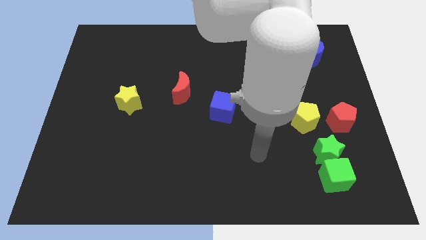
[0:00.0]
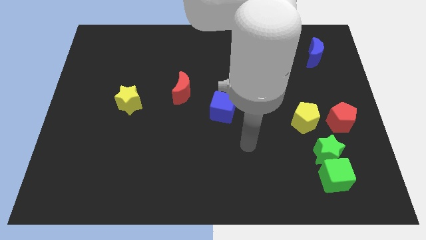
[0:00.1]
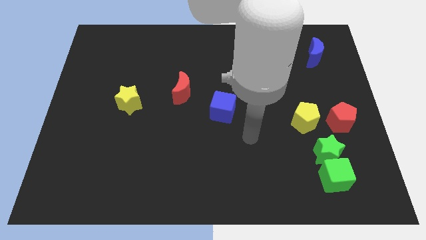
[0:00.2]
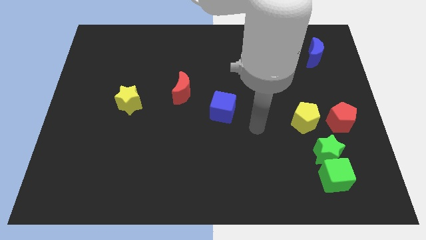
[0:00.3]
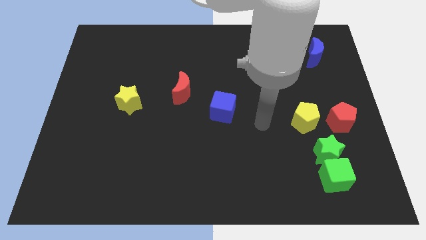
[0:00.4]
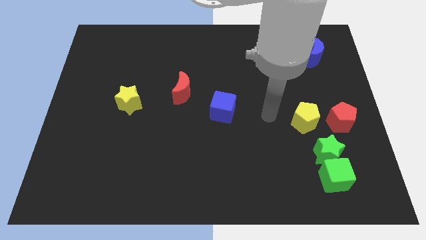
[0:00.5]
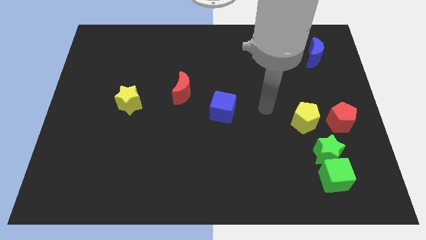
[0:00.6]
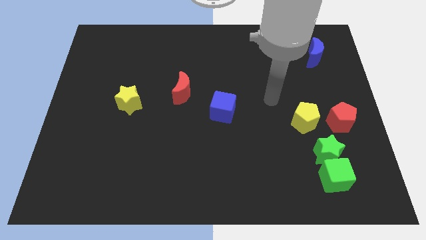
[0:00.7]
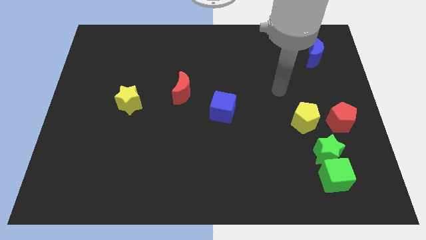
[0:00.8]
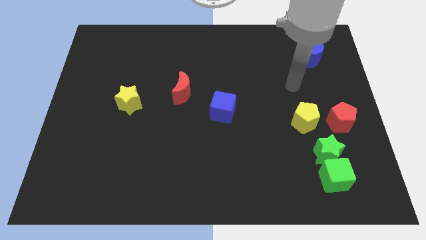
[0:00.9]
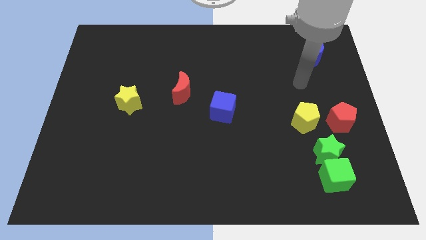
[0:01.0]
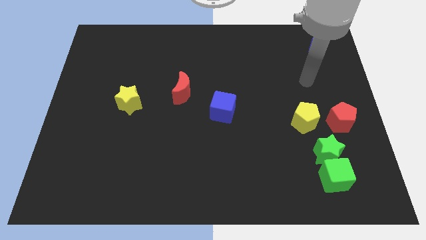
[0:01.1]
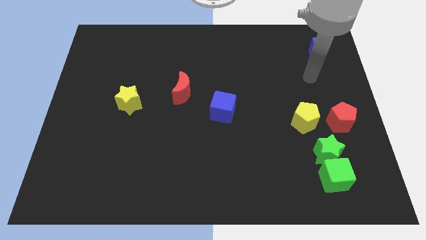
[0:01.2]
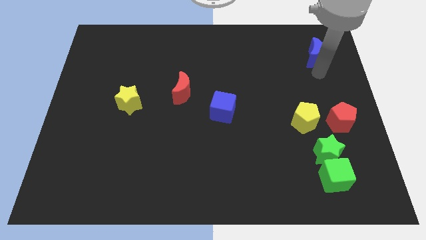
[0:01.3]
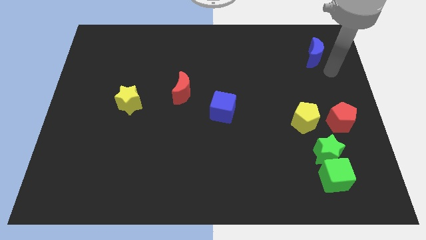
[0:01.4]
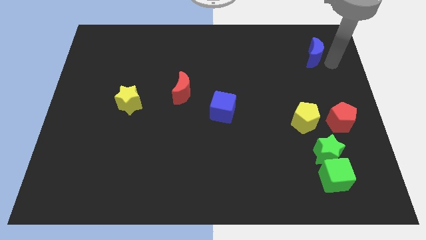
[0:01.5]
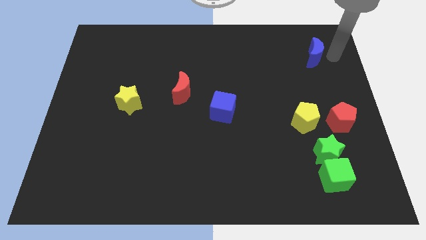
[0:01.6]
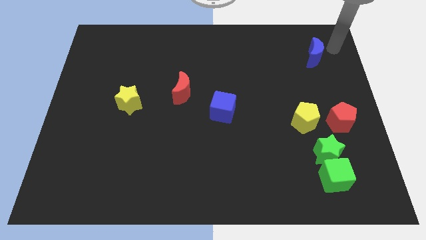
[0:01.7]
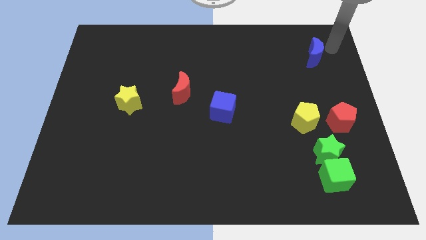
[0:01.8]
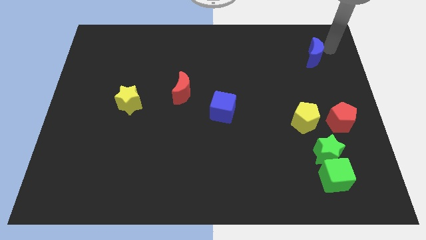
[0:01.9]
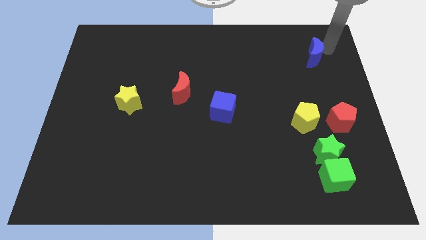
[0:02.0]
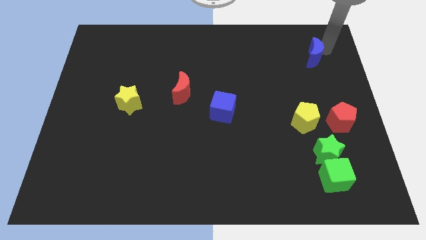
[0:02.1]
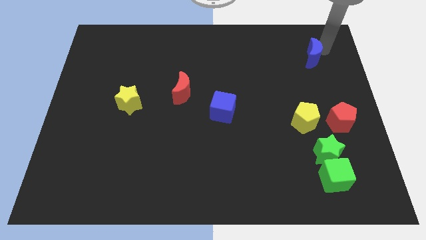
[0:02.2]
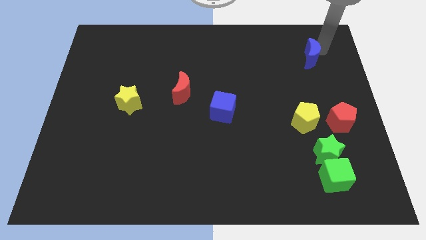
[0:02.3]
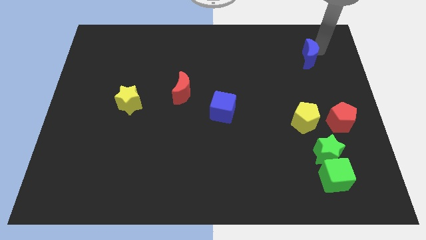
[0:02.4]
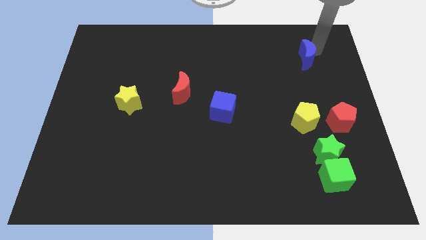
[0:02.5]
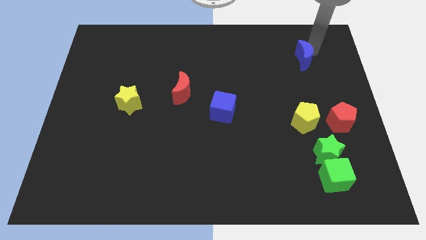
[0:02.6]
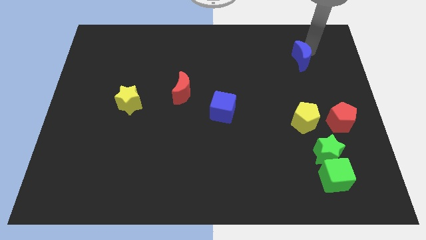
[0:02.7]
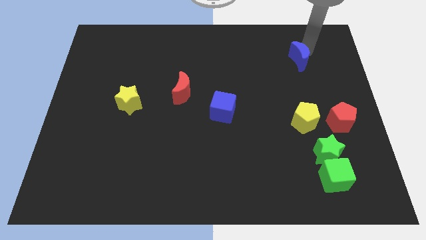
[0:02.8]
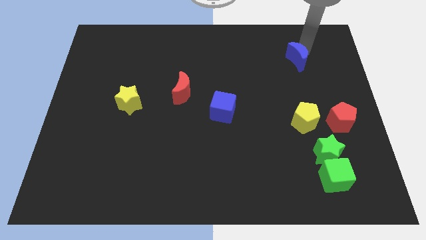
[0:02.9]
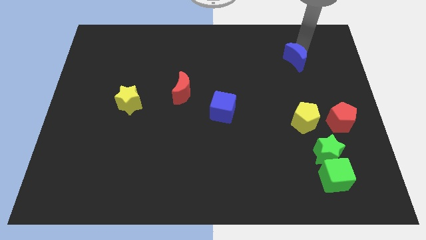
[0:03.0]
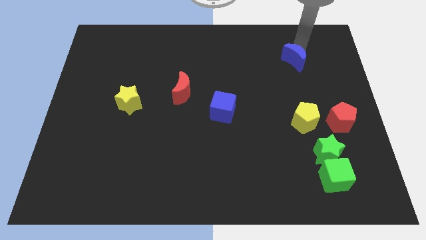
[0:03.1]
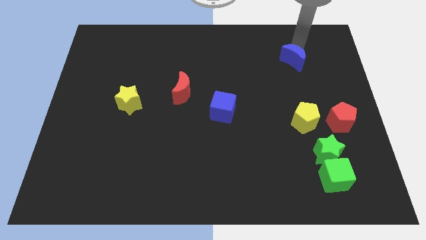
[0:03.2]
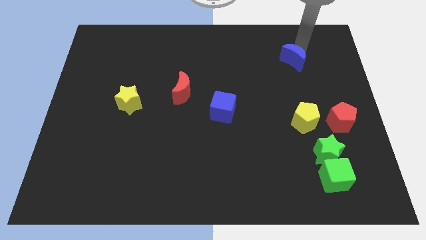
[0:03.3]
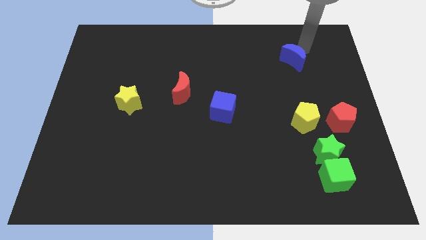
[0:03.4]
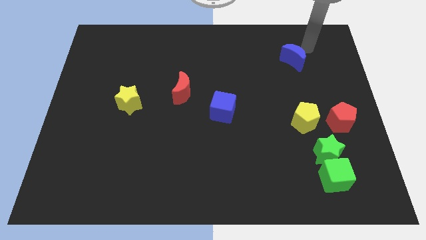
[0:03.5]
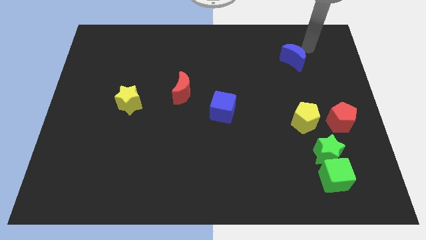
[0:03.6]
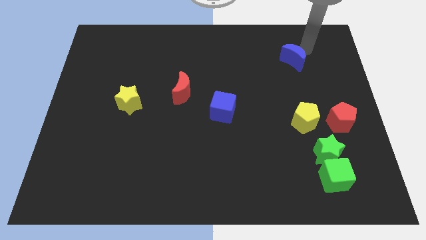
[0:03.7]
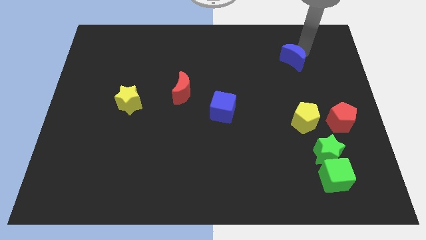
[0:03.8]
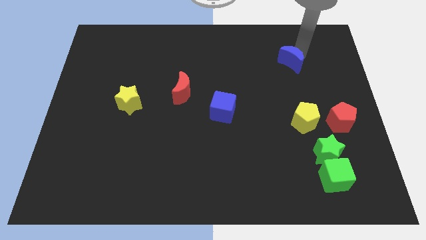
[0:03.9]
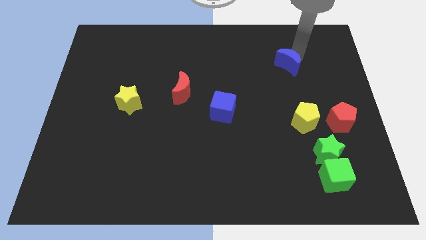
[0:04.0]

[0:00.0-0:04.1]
push the blue moon a bit down and to the left

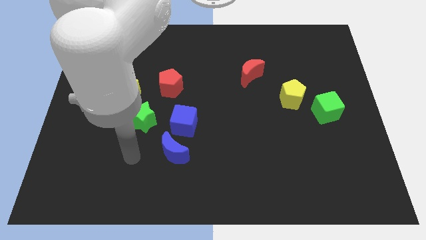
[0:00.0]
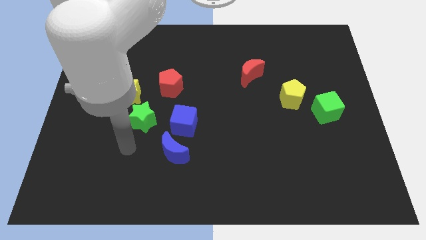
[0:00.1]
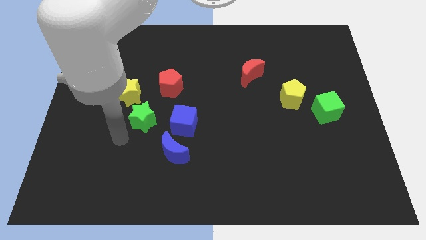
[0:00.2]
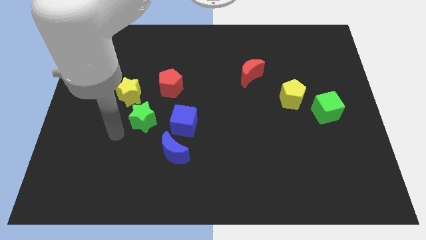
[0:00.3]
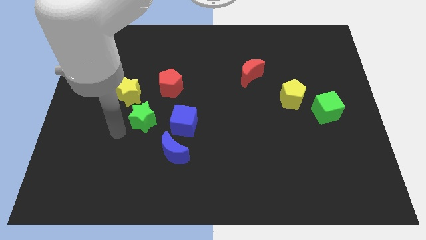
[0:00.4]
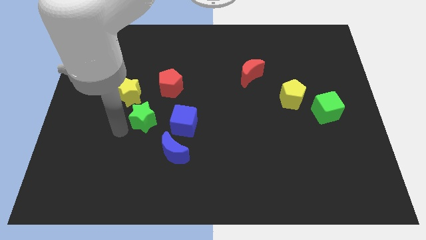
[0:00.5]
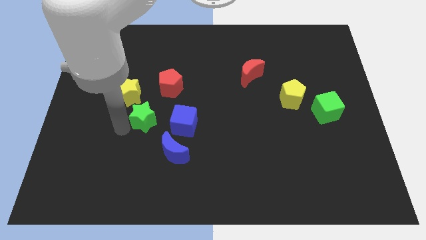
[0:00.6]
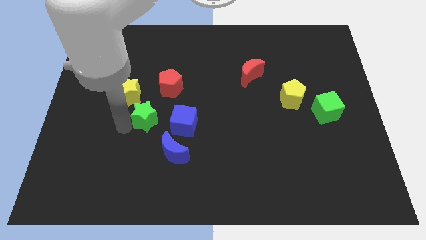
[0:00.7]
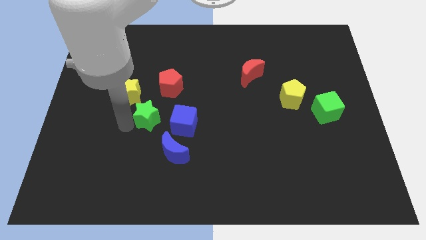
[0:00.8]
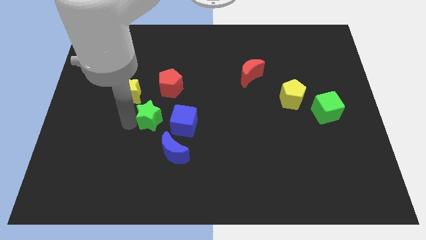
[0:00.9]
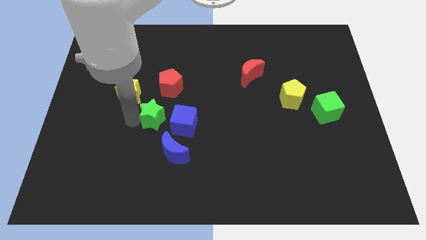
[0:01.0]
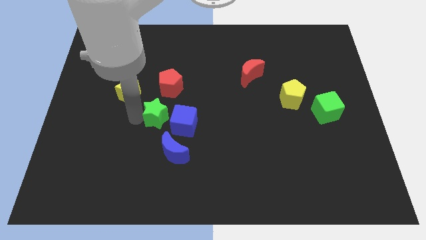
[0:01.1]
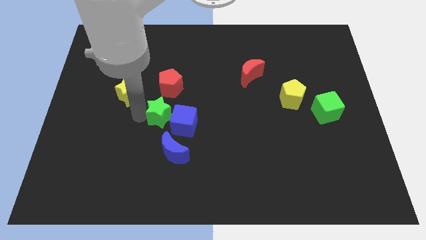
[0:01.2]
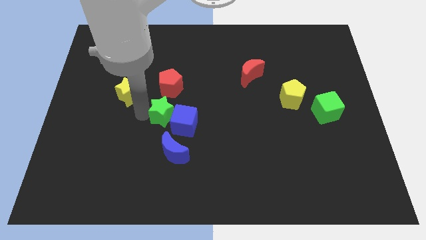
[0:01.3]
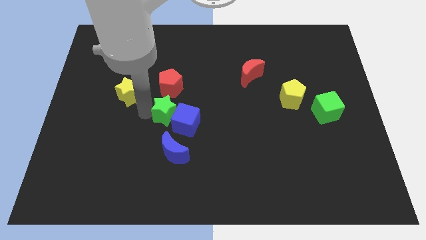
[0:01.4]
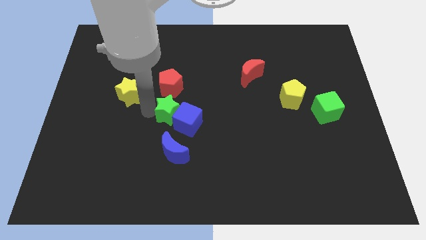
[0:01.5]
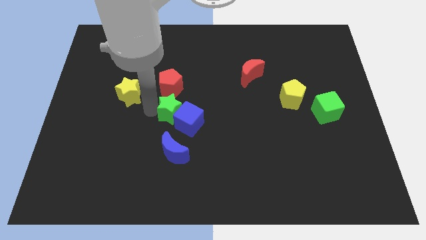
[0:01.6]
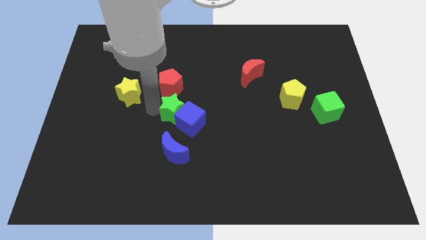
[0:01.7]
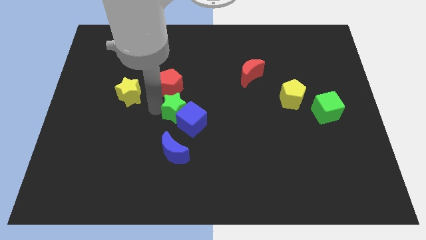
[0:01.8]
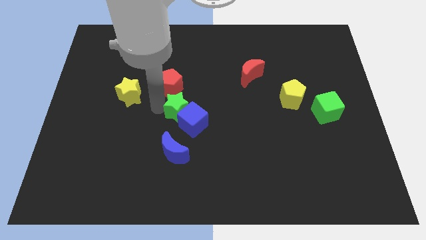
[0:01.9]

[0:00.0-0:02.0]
move the green star slightly to the right

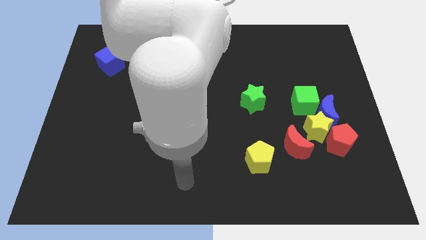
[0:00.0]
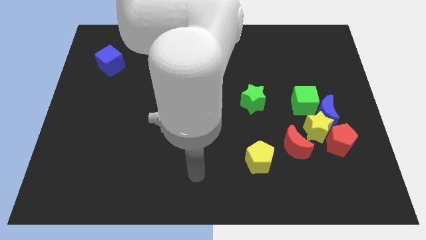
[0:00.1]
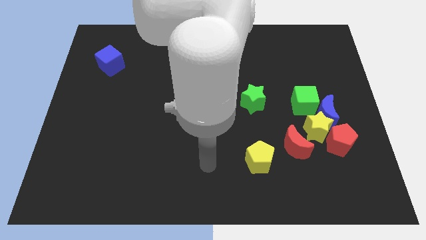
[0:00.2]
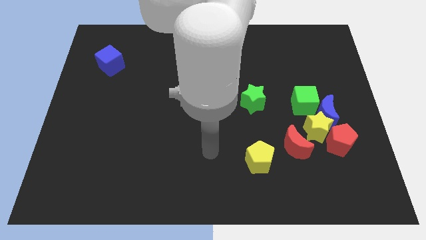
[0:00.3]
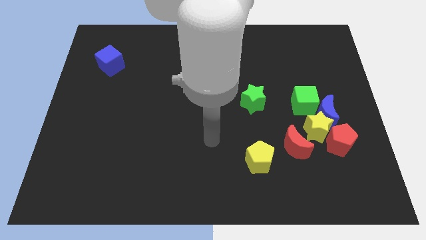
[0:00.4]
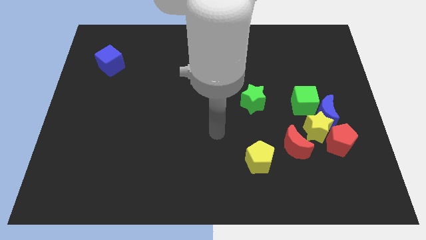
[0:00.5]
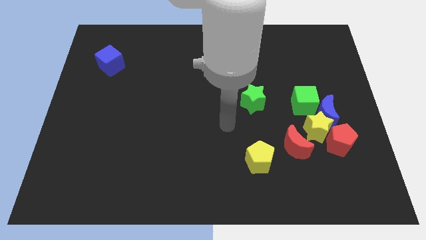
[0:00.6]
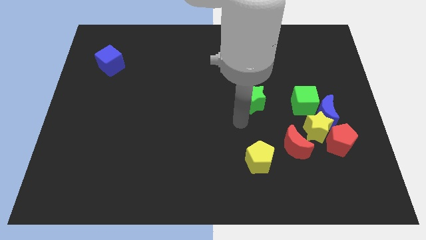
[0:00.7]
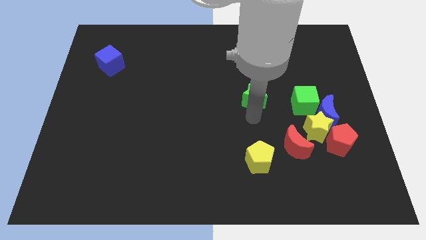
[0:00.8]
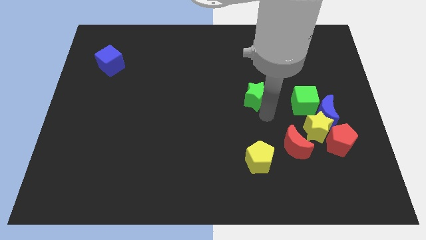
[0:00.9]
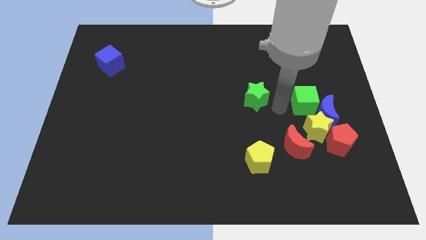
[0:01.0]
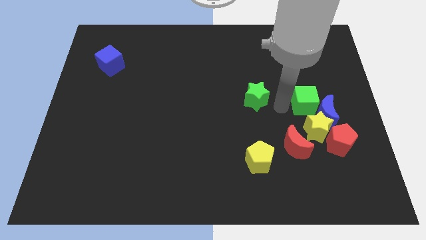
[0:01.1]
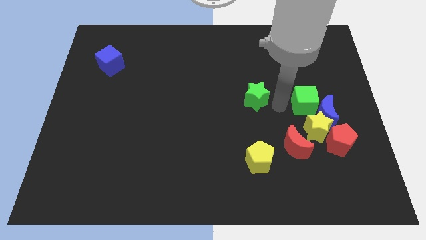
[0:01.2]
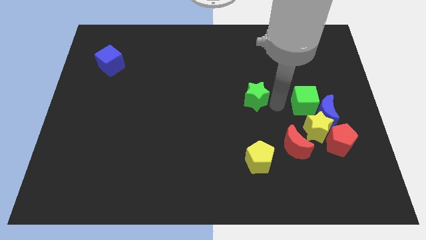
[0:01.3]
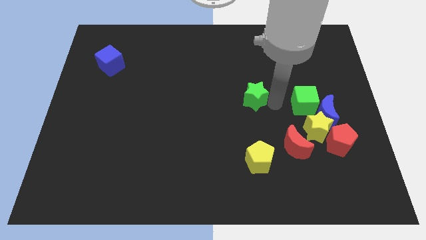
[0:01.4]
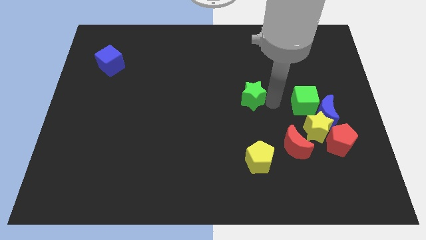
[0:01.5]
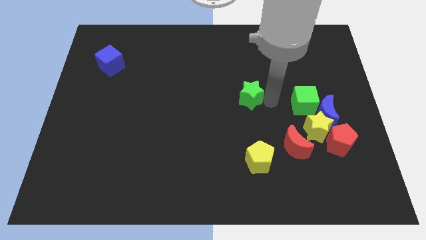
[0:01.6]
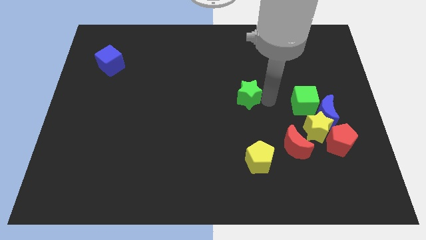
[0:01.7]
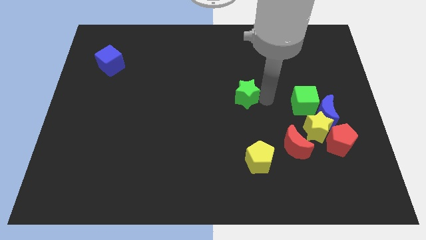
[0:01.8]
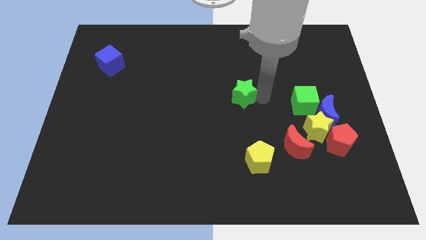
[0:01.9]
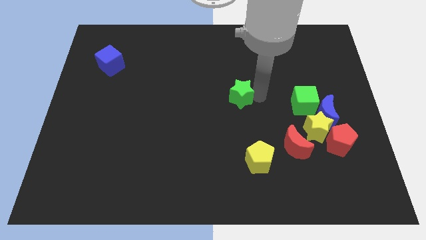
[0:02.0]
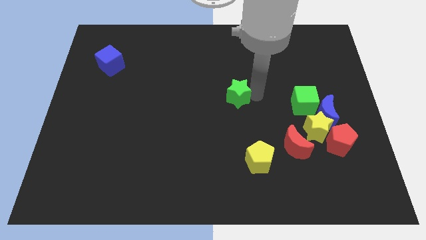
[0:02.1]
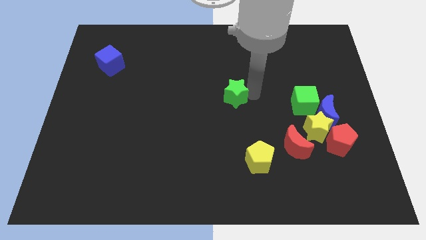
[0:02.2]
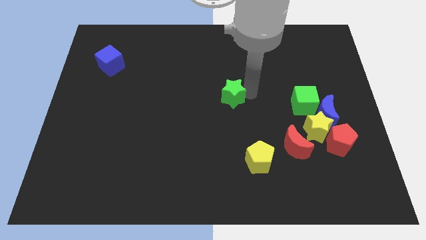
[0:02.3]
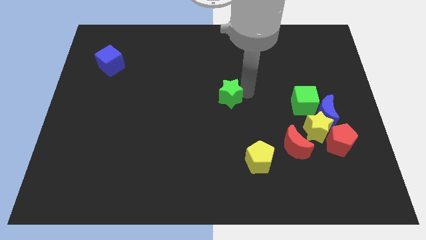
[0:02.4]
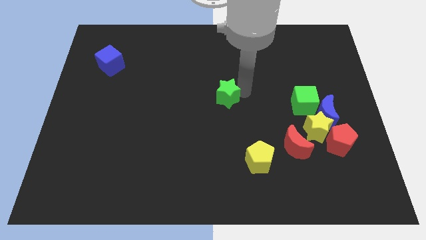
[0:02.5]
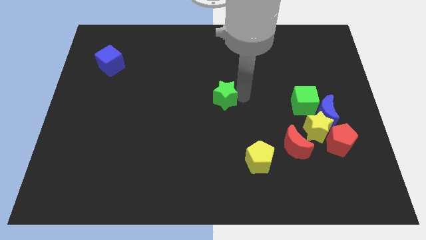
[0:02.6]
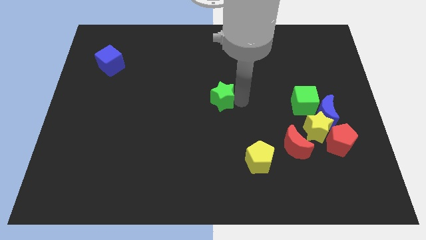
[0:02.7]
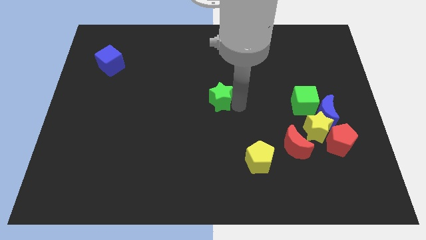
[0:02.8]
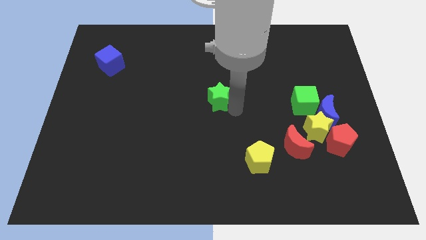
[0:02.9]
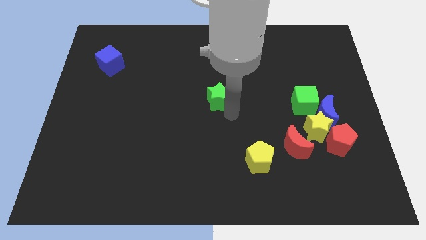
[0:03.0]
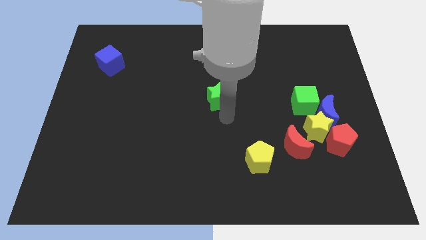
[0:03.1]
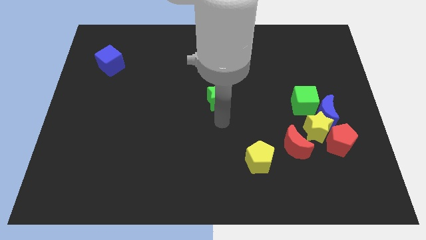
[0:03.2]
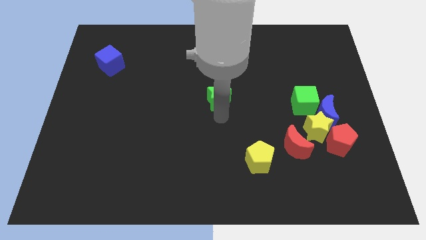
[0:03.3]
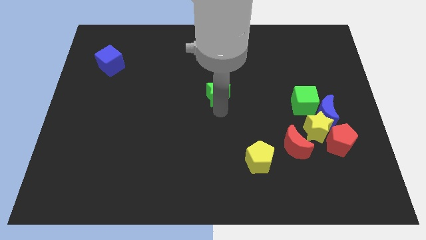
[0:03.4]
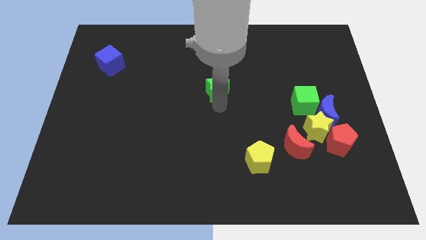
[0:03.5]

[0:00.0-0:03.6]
move the green star upwards and then to the left a bit
